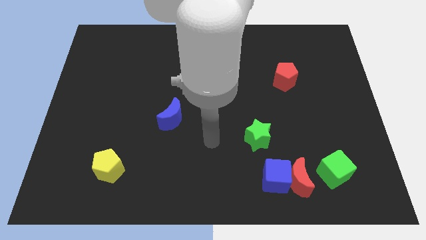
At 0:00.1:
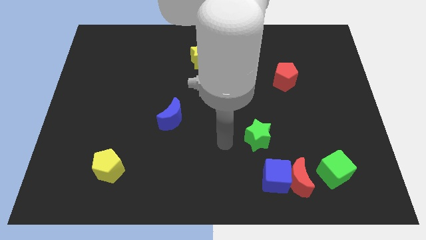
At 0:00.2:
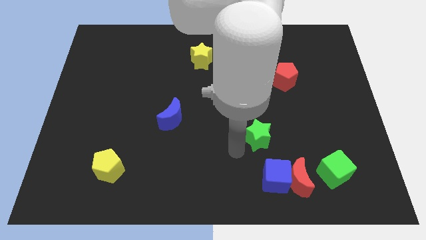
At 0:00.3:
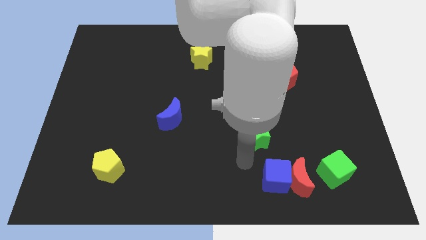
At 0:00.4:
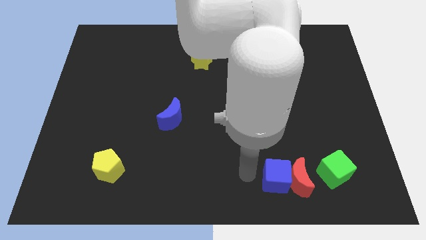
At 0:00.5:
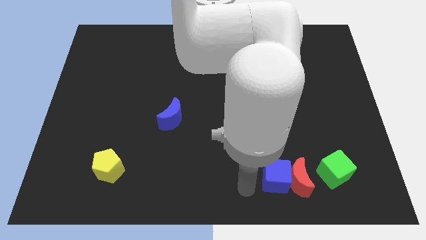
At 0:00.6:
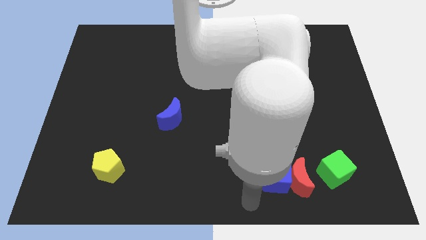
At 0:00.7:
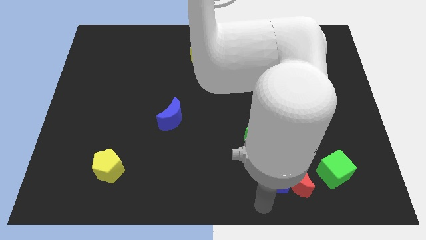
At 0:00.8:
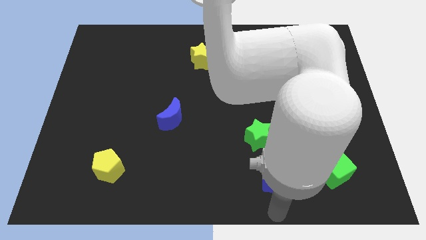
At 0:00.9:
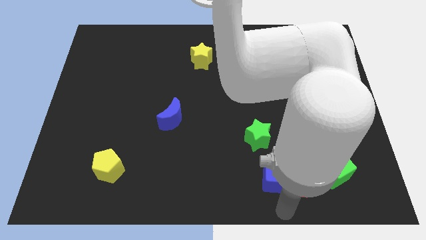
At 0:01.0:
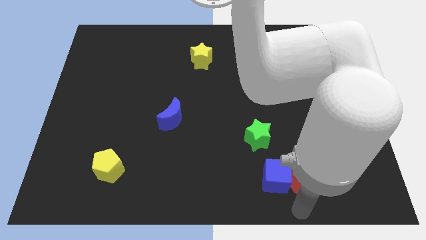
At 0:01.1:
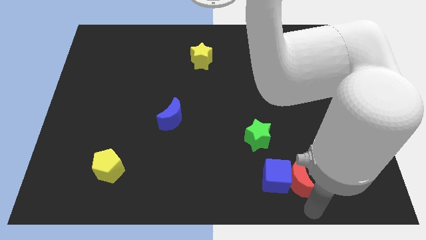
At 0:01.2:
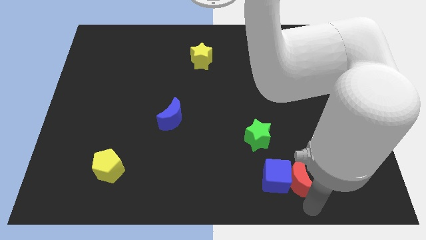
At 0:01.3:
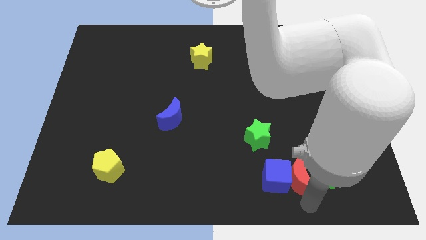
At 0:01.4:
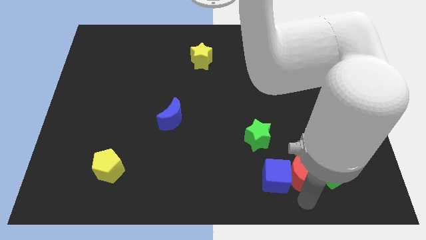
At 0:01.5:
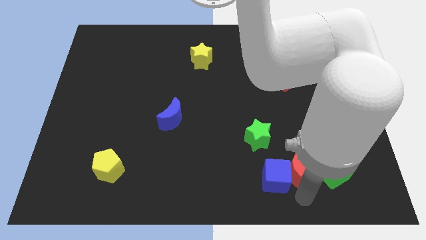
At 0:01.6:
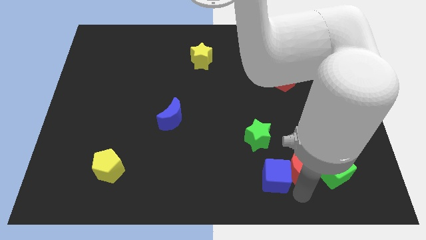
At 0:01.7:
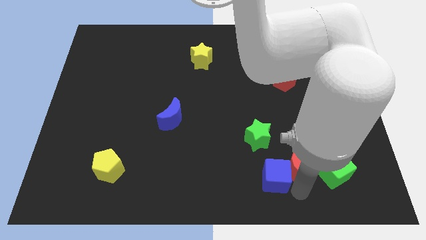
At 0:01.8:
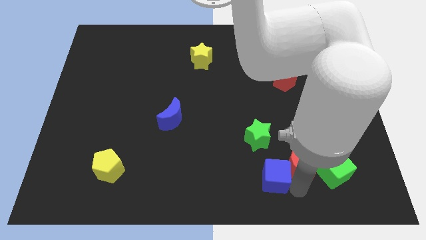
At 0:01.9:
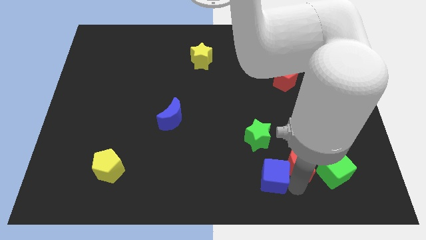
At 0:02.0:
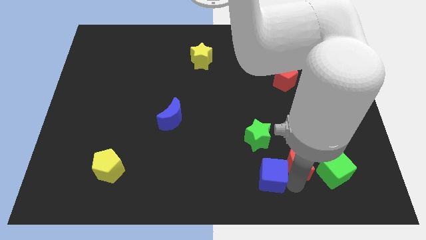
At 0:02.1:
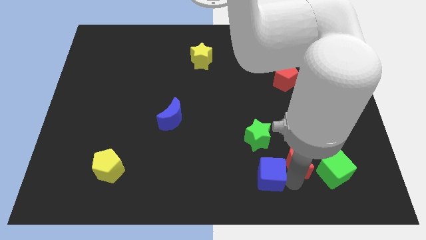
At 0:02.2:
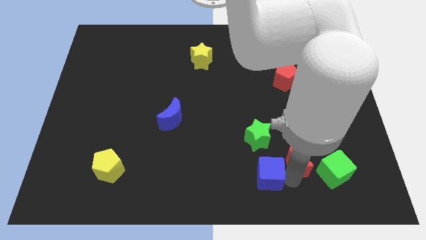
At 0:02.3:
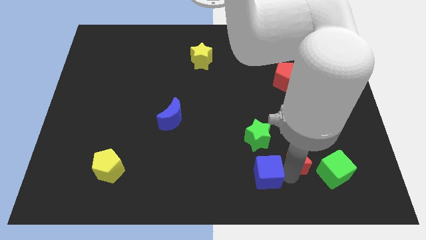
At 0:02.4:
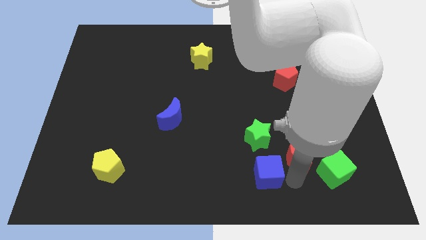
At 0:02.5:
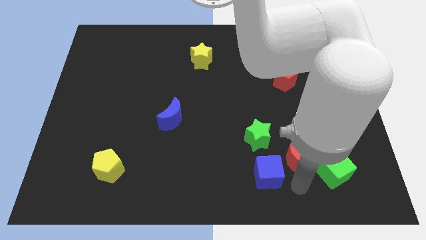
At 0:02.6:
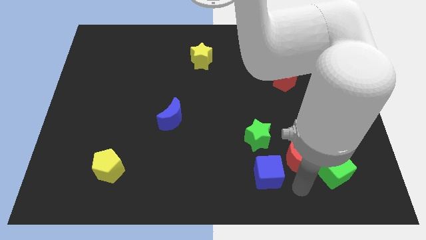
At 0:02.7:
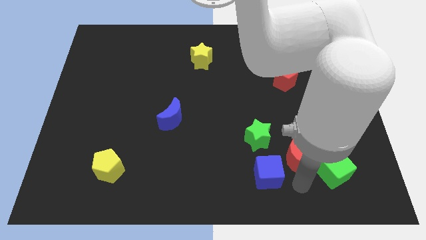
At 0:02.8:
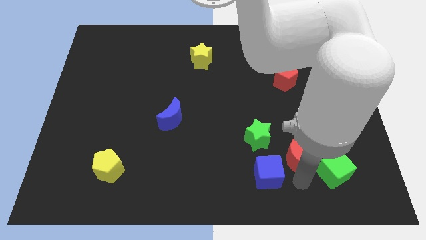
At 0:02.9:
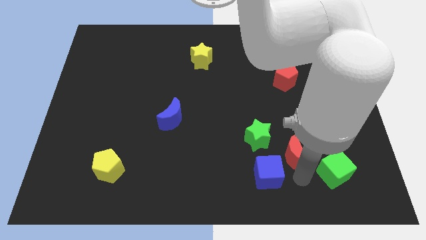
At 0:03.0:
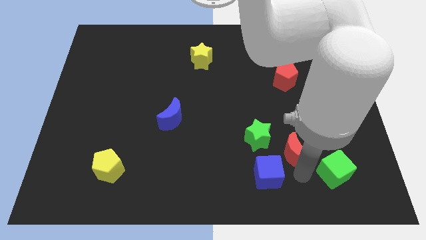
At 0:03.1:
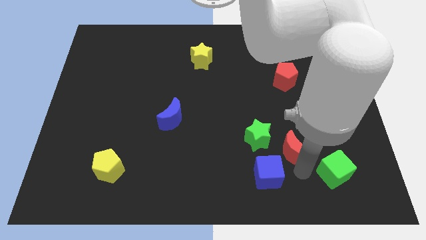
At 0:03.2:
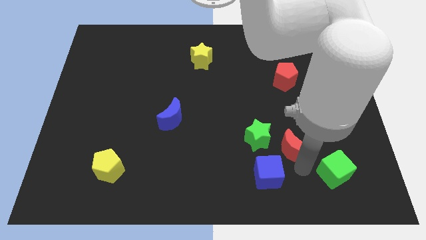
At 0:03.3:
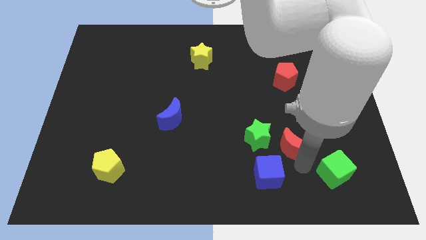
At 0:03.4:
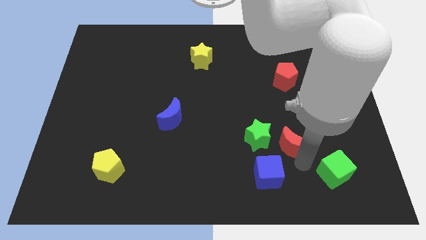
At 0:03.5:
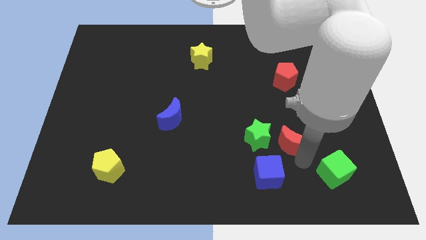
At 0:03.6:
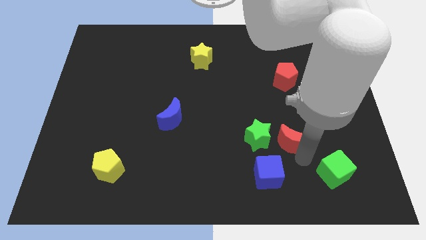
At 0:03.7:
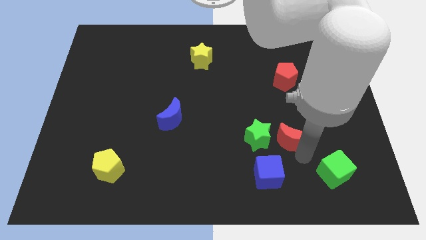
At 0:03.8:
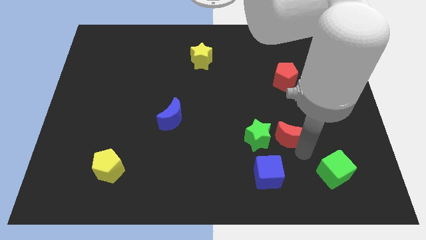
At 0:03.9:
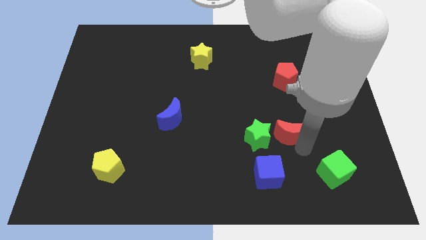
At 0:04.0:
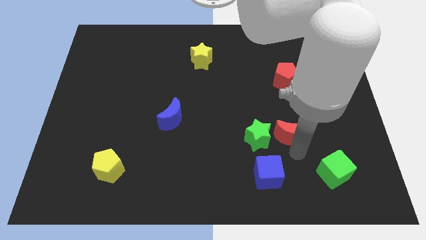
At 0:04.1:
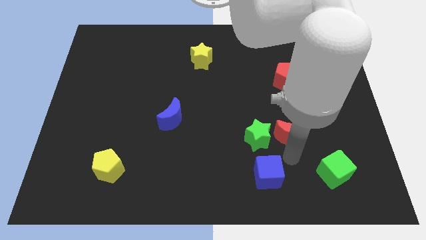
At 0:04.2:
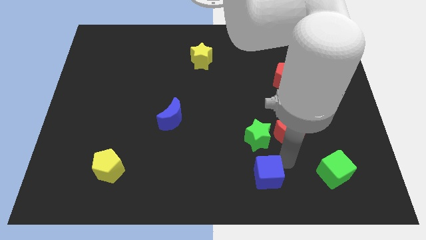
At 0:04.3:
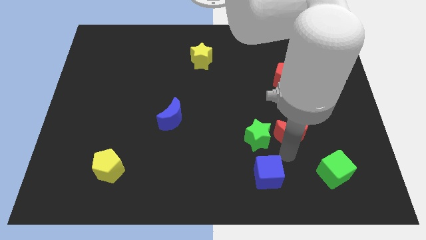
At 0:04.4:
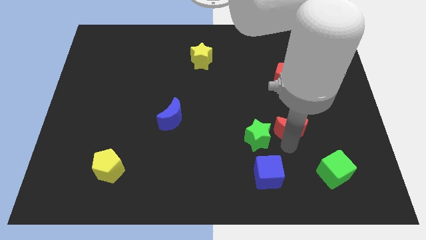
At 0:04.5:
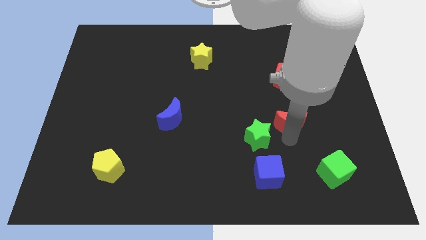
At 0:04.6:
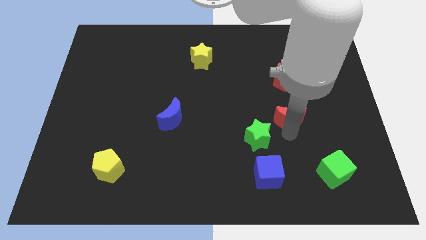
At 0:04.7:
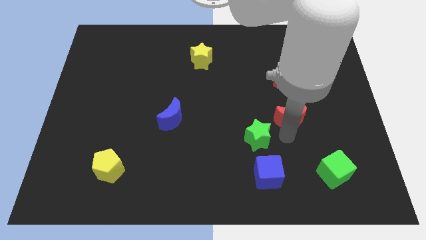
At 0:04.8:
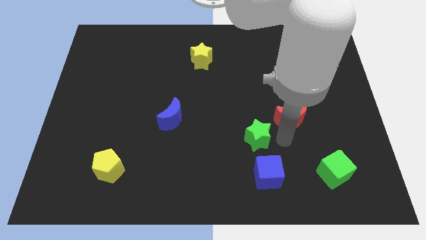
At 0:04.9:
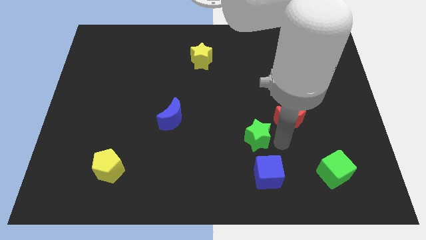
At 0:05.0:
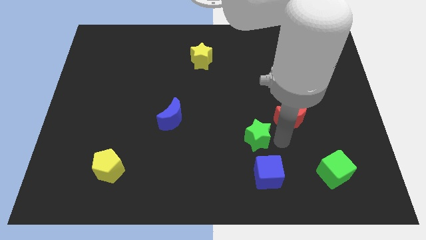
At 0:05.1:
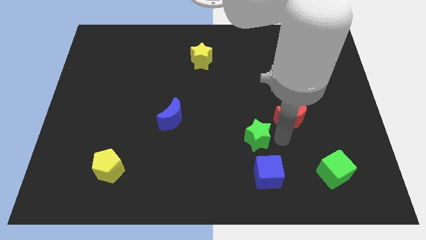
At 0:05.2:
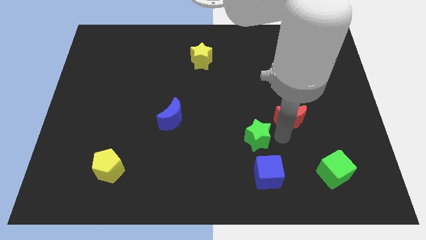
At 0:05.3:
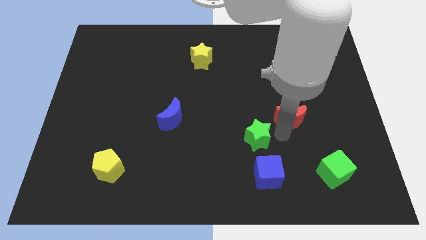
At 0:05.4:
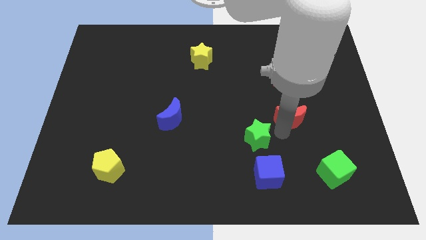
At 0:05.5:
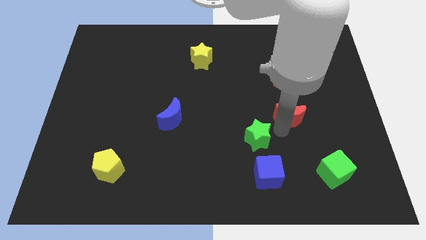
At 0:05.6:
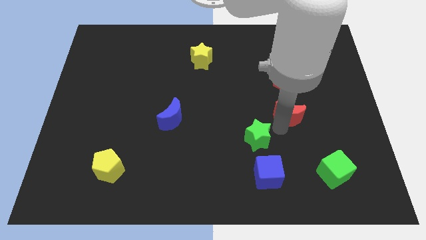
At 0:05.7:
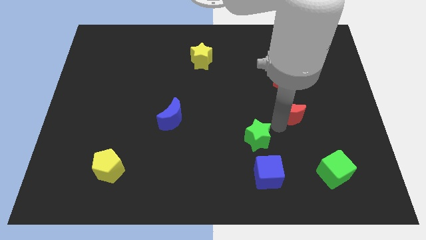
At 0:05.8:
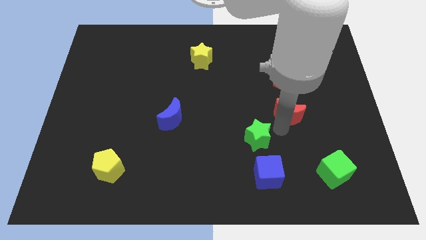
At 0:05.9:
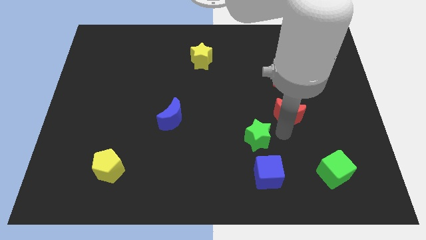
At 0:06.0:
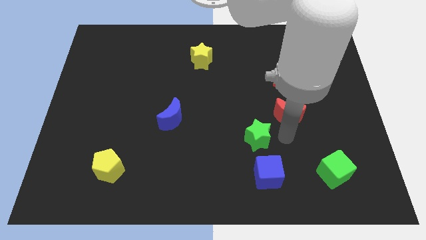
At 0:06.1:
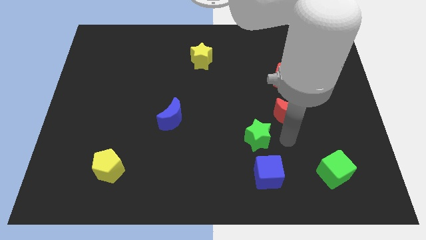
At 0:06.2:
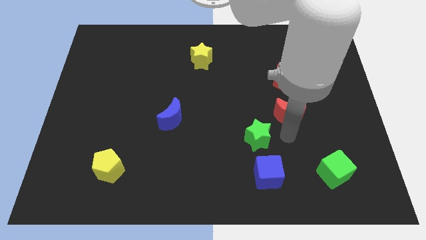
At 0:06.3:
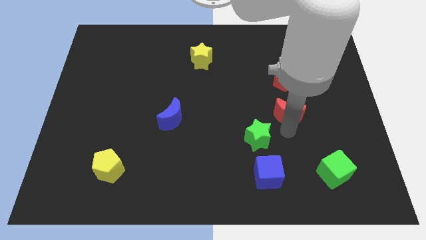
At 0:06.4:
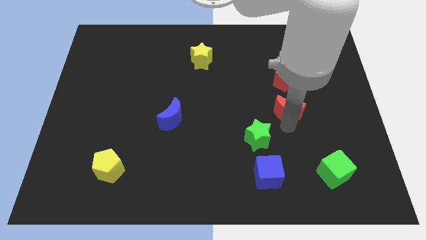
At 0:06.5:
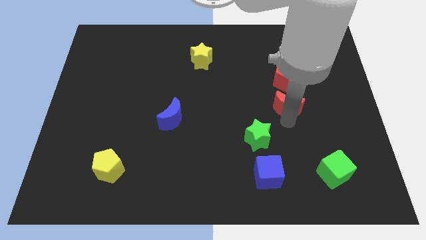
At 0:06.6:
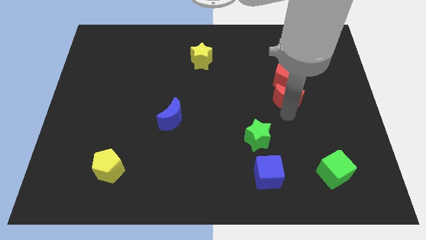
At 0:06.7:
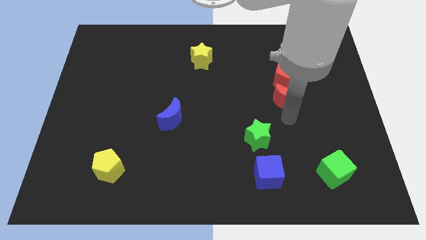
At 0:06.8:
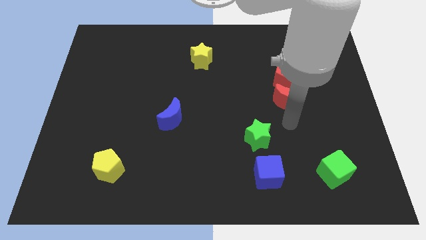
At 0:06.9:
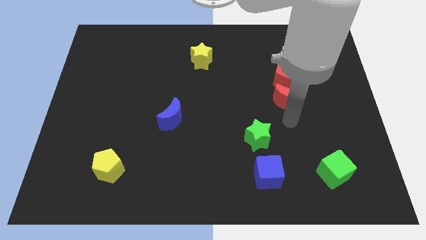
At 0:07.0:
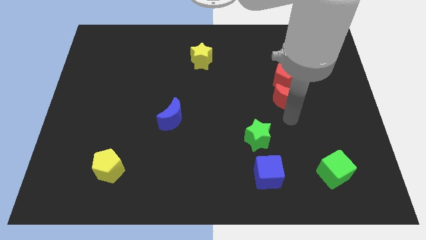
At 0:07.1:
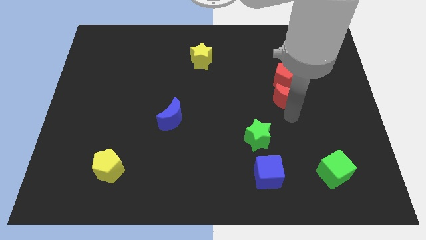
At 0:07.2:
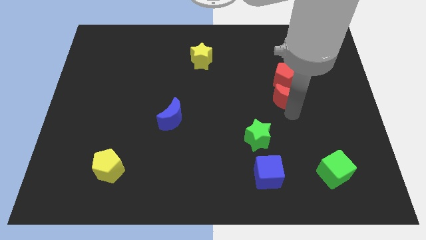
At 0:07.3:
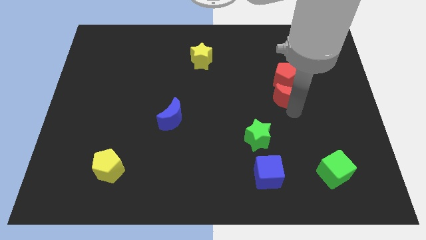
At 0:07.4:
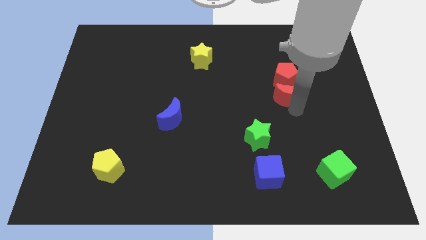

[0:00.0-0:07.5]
slide the red moon to the red pentagon
